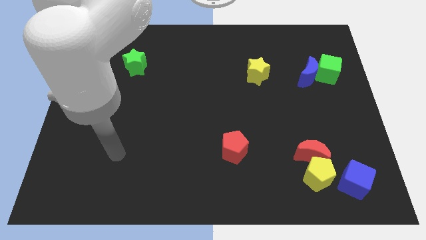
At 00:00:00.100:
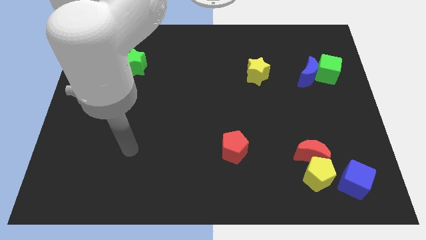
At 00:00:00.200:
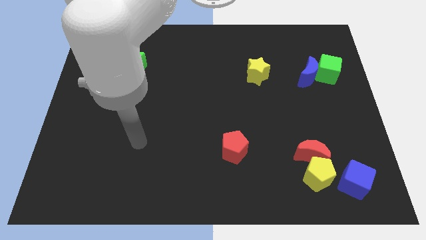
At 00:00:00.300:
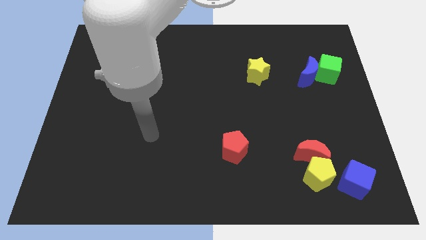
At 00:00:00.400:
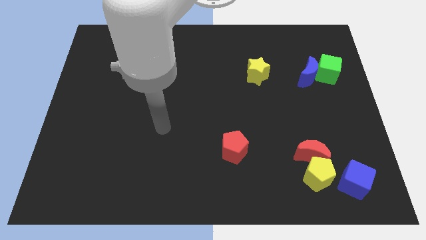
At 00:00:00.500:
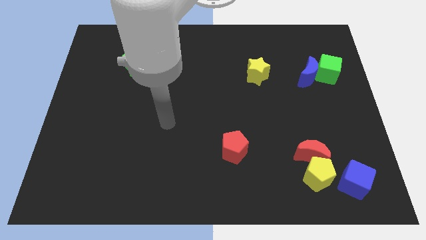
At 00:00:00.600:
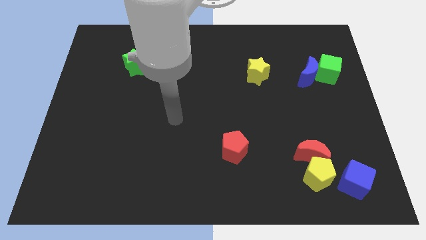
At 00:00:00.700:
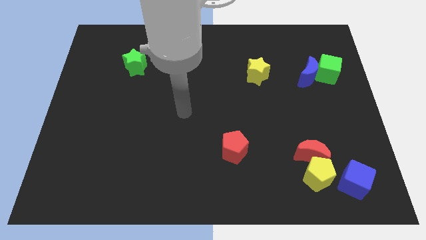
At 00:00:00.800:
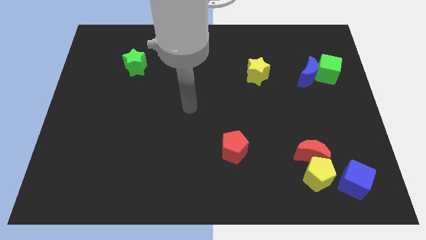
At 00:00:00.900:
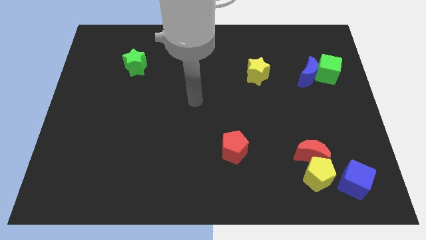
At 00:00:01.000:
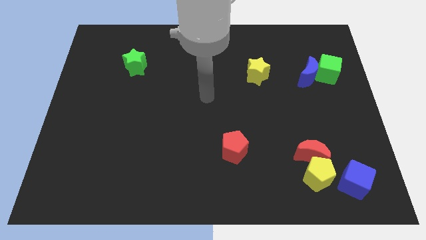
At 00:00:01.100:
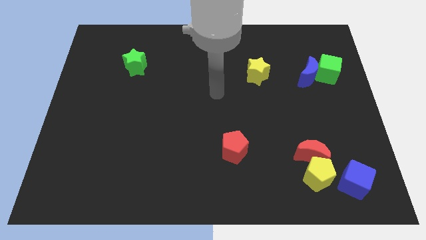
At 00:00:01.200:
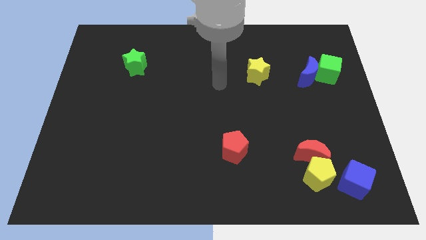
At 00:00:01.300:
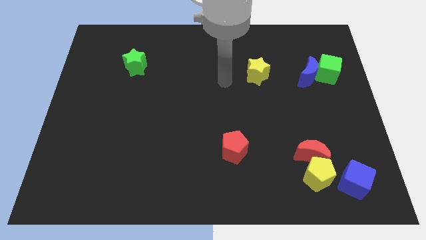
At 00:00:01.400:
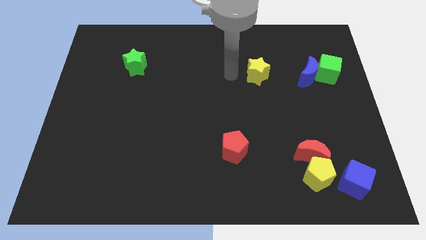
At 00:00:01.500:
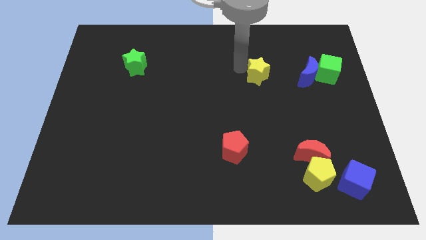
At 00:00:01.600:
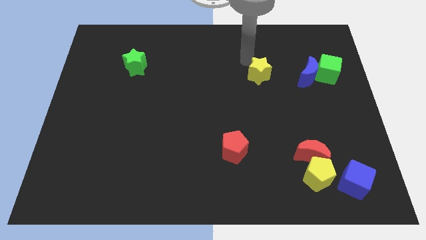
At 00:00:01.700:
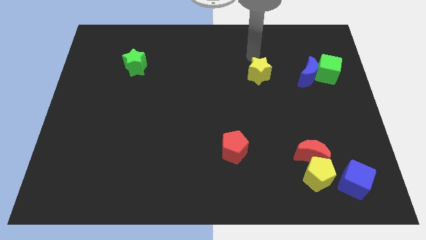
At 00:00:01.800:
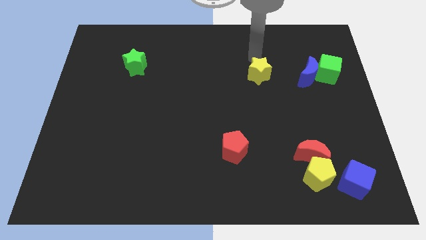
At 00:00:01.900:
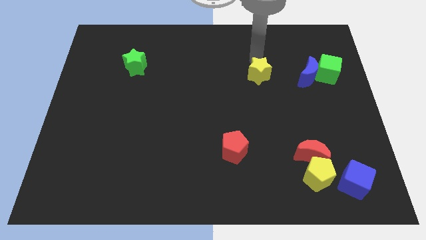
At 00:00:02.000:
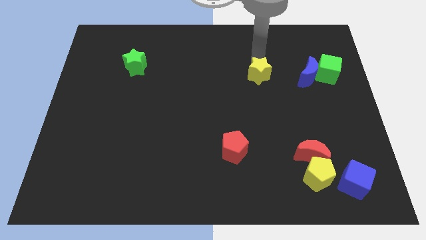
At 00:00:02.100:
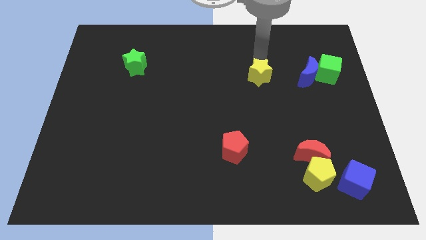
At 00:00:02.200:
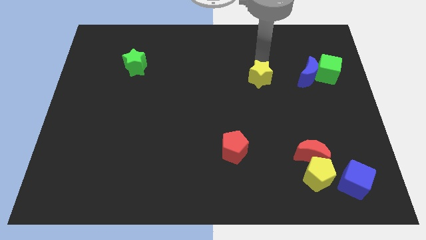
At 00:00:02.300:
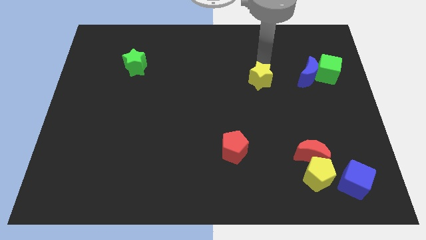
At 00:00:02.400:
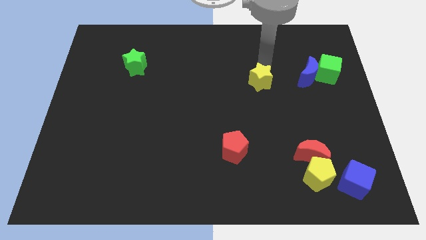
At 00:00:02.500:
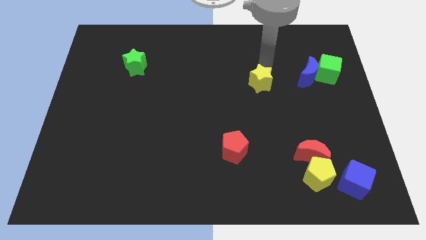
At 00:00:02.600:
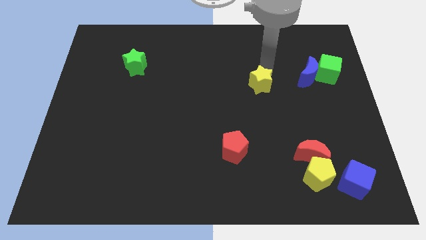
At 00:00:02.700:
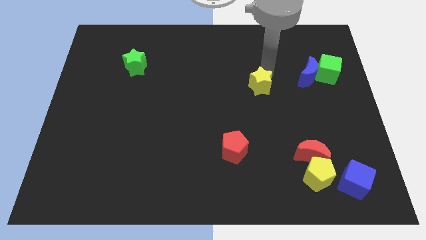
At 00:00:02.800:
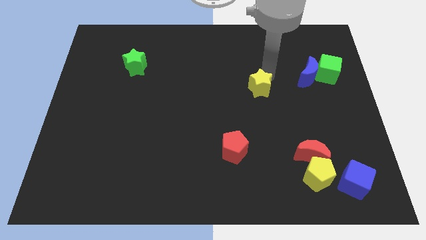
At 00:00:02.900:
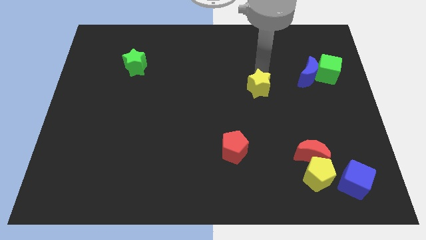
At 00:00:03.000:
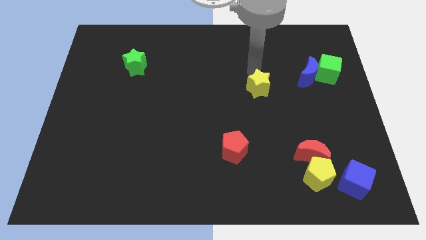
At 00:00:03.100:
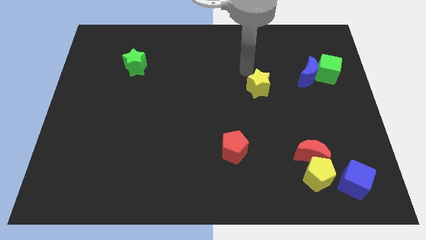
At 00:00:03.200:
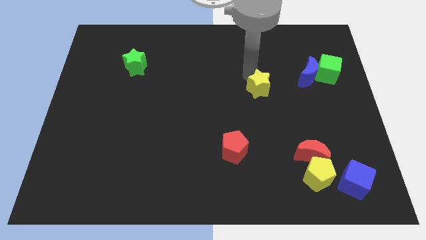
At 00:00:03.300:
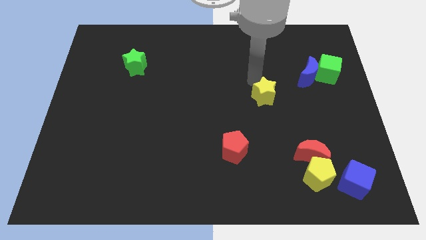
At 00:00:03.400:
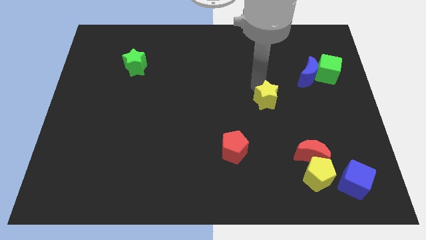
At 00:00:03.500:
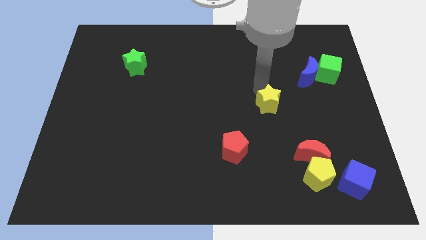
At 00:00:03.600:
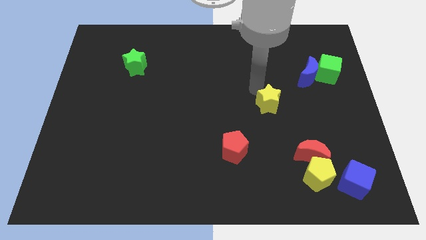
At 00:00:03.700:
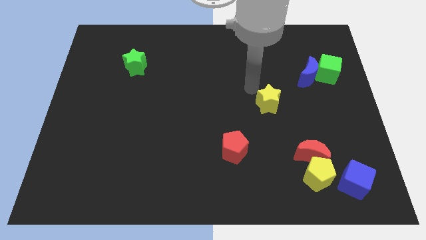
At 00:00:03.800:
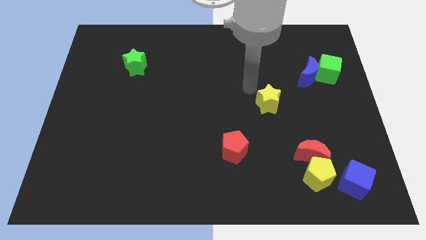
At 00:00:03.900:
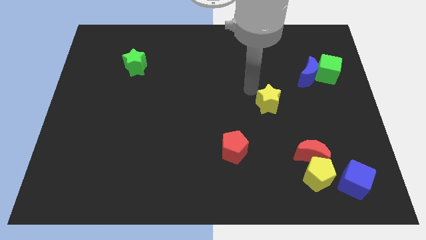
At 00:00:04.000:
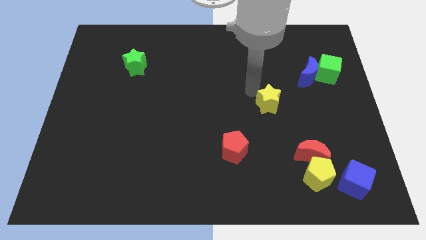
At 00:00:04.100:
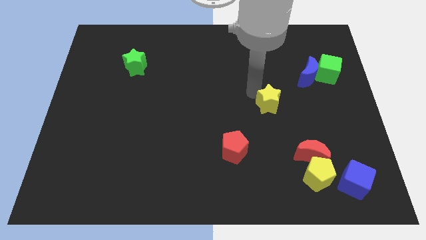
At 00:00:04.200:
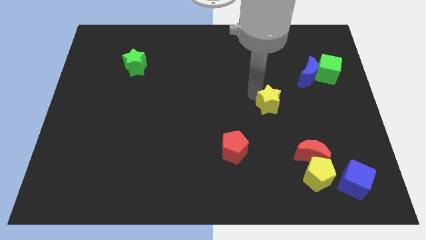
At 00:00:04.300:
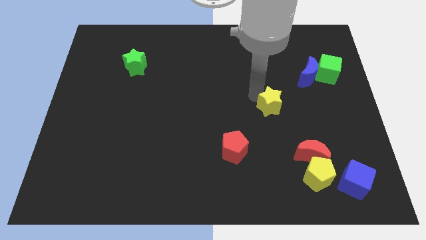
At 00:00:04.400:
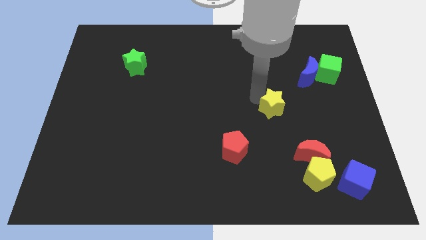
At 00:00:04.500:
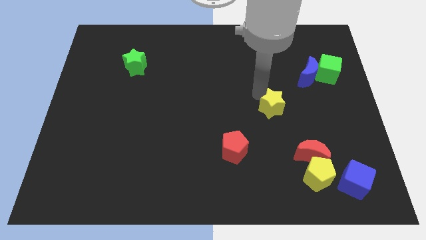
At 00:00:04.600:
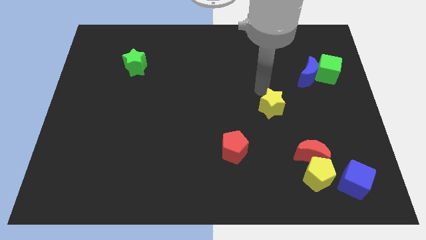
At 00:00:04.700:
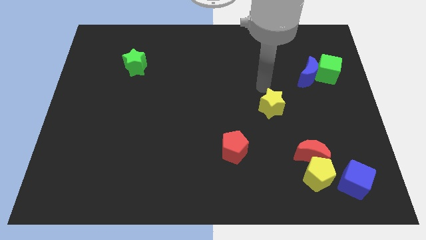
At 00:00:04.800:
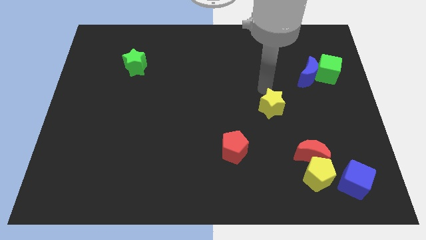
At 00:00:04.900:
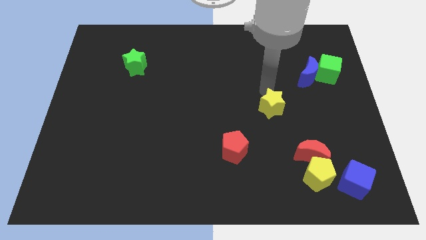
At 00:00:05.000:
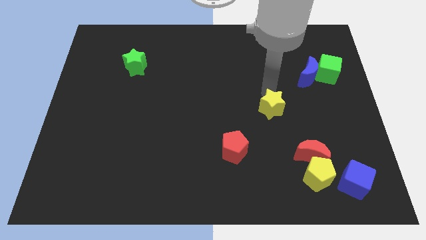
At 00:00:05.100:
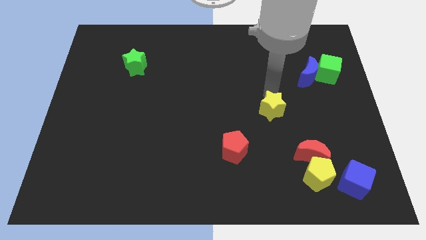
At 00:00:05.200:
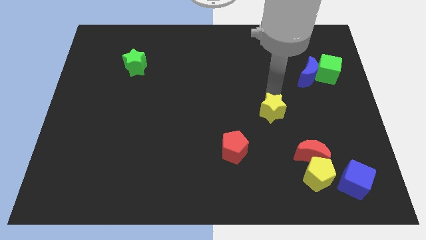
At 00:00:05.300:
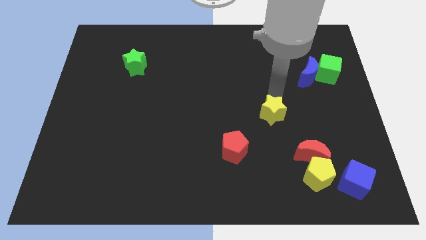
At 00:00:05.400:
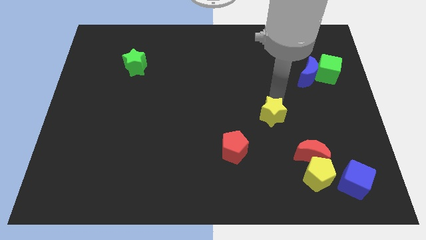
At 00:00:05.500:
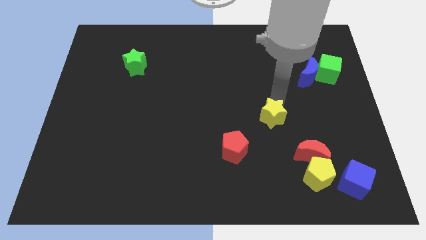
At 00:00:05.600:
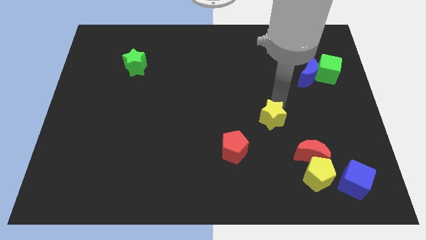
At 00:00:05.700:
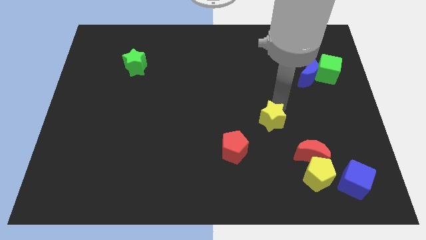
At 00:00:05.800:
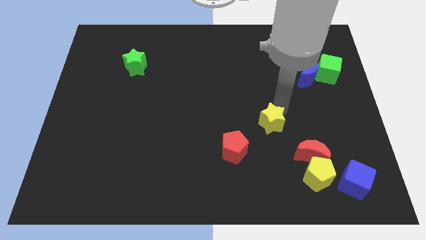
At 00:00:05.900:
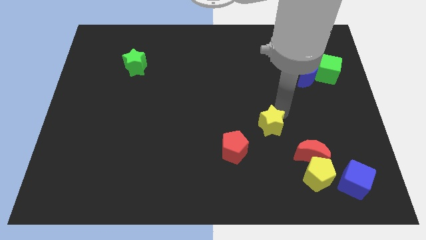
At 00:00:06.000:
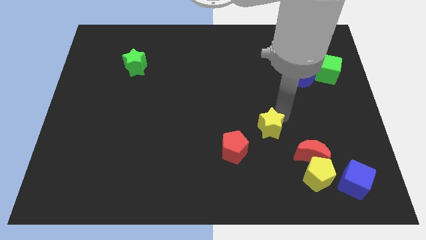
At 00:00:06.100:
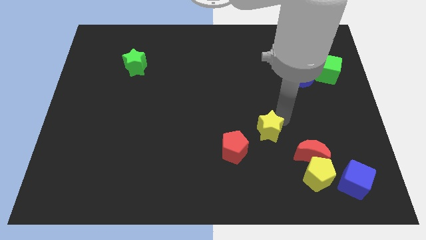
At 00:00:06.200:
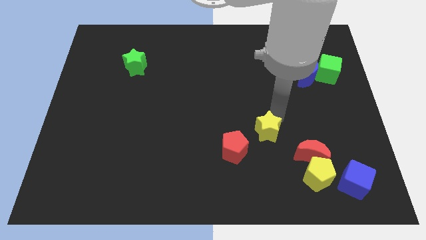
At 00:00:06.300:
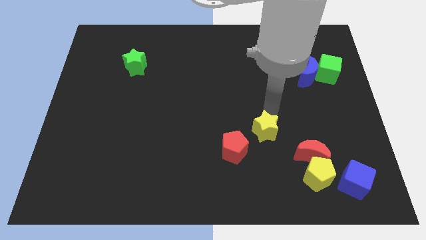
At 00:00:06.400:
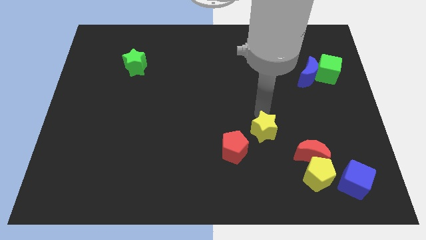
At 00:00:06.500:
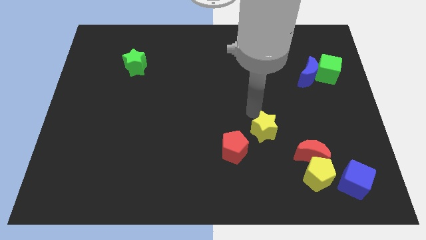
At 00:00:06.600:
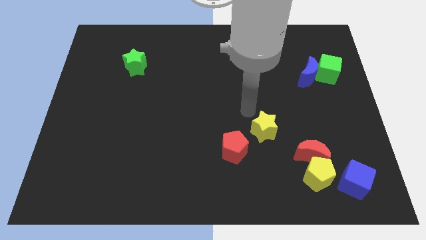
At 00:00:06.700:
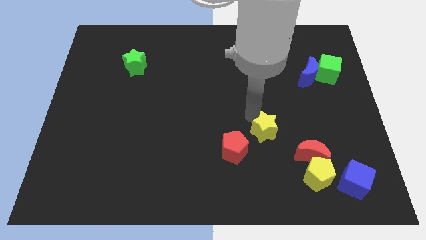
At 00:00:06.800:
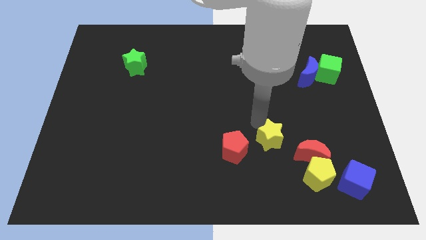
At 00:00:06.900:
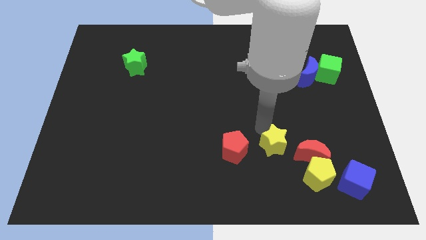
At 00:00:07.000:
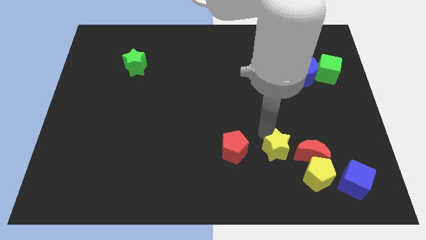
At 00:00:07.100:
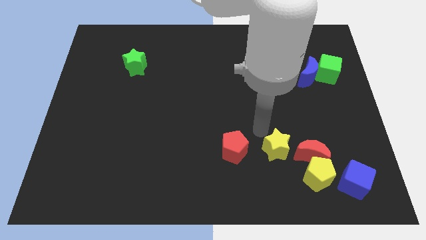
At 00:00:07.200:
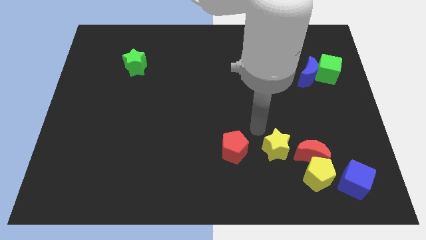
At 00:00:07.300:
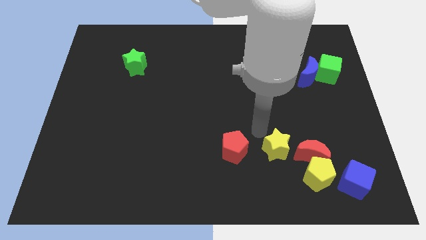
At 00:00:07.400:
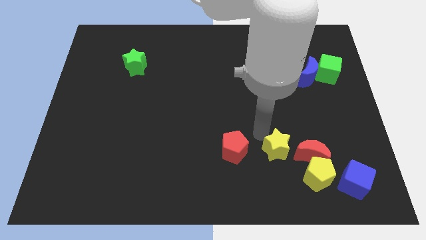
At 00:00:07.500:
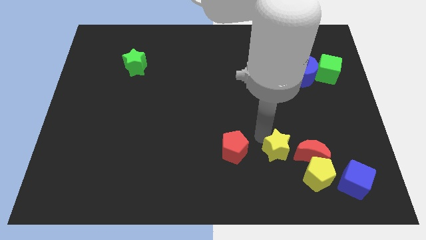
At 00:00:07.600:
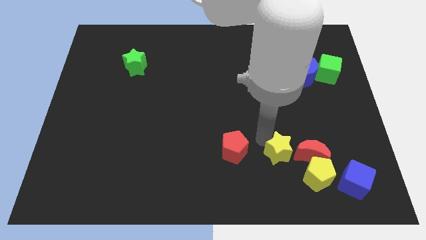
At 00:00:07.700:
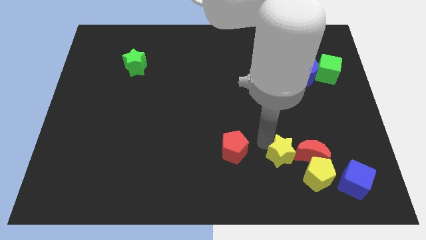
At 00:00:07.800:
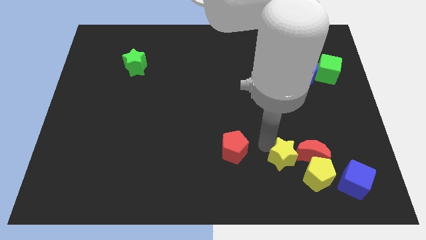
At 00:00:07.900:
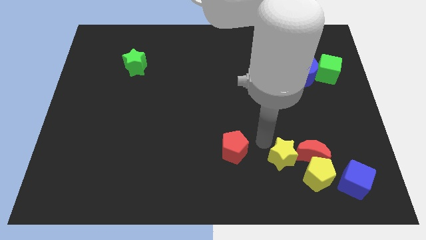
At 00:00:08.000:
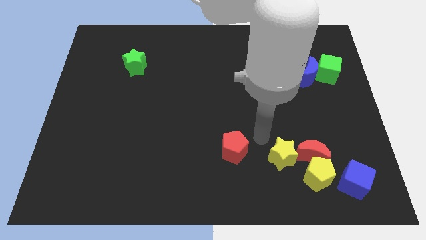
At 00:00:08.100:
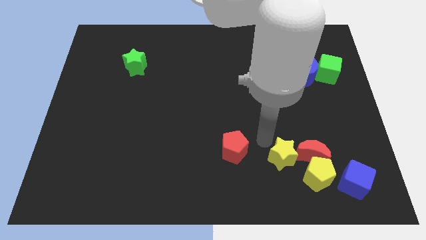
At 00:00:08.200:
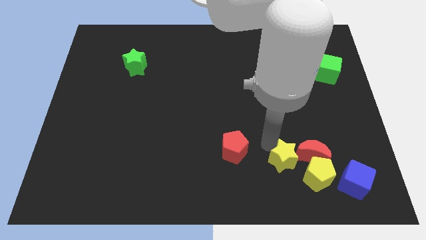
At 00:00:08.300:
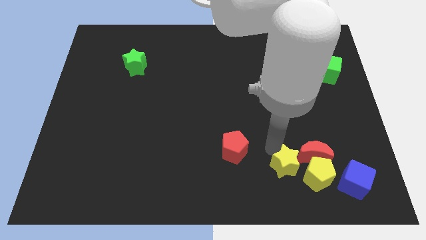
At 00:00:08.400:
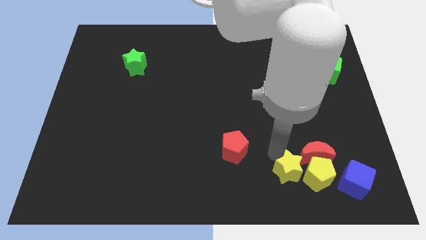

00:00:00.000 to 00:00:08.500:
slide the yellow star towards the yellow pentagon
